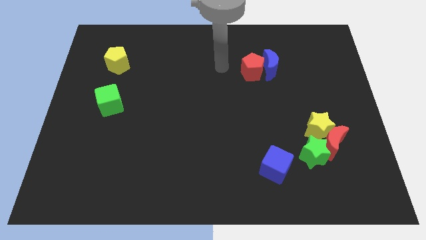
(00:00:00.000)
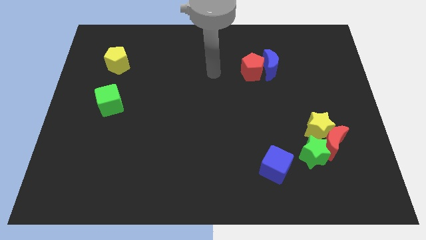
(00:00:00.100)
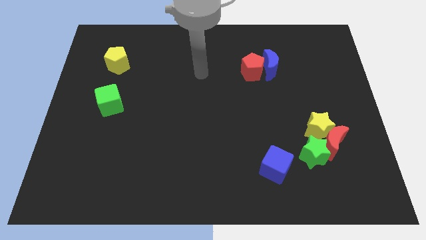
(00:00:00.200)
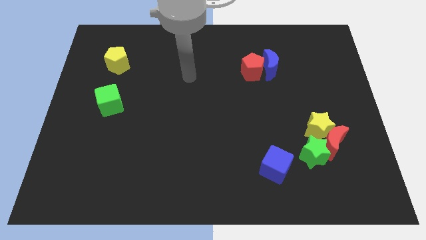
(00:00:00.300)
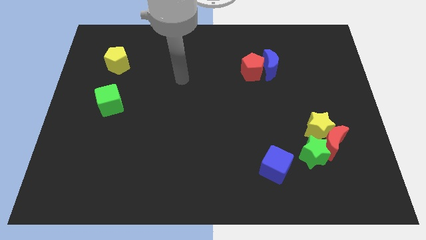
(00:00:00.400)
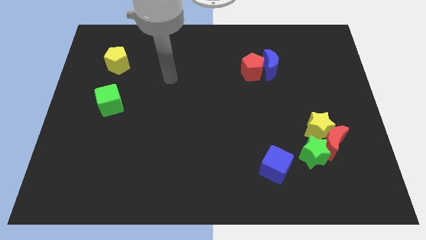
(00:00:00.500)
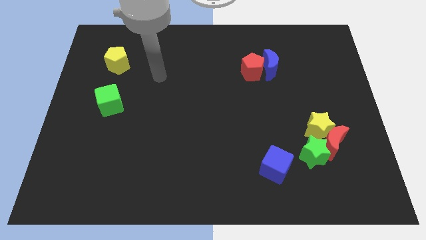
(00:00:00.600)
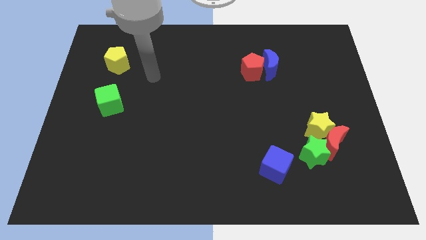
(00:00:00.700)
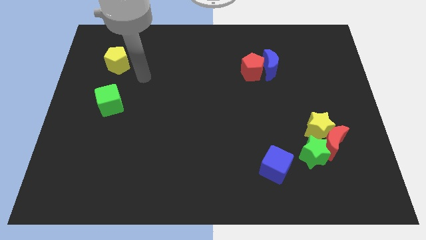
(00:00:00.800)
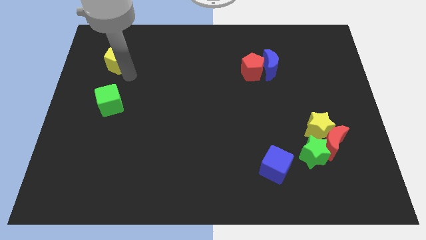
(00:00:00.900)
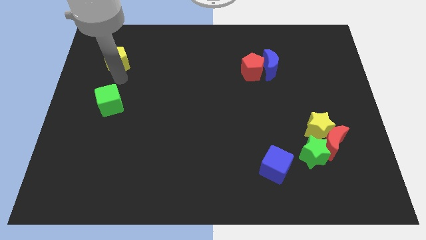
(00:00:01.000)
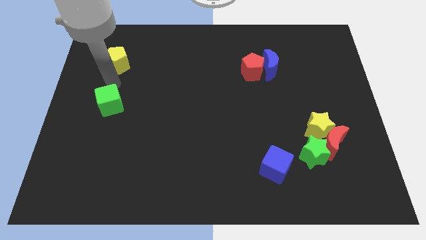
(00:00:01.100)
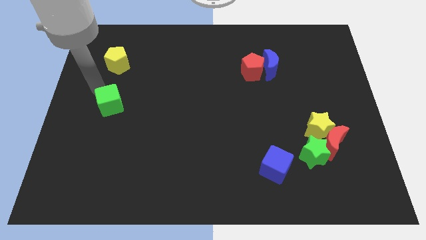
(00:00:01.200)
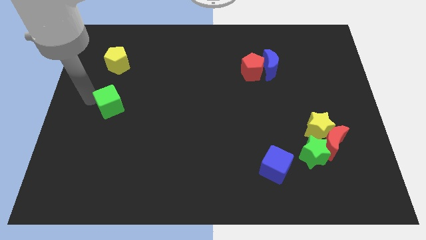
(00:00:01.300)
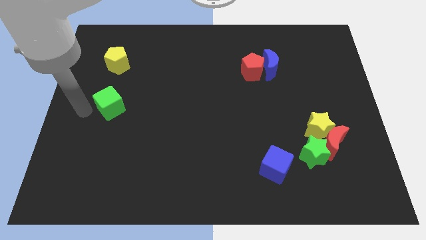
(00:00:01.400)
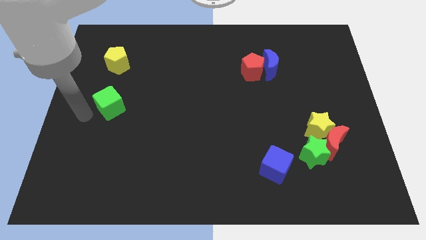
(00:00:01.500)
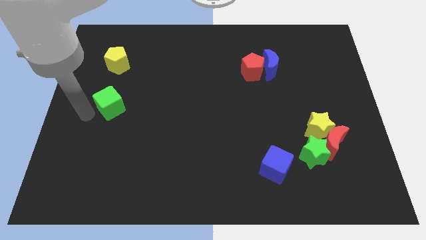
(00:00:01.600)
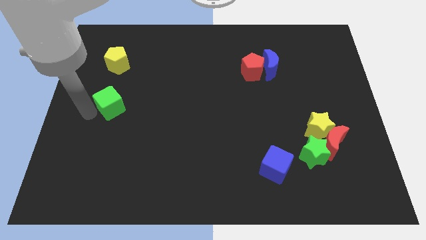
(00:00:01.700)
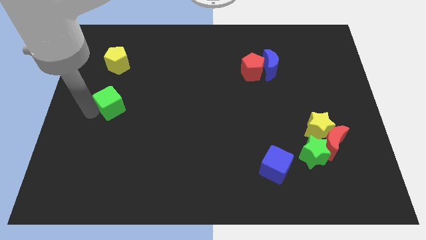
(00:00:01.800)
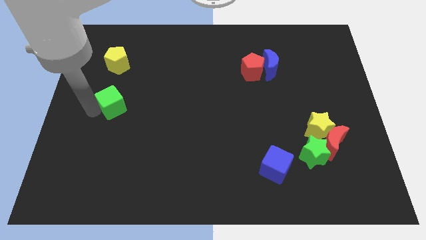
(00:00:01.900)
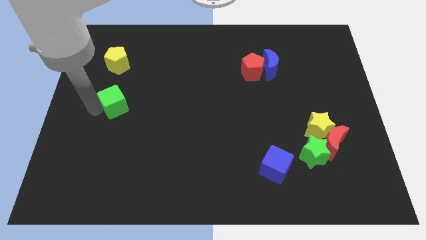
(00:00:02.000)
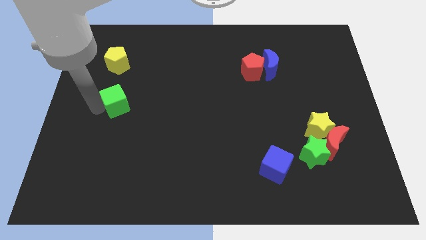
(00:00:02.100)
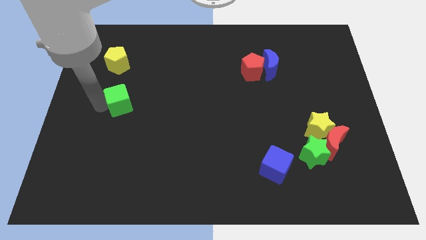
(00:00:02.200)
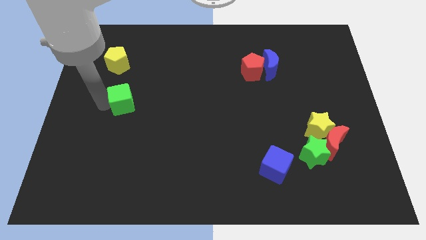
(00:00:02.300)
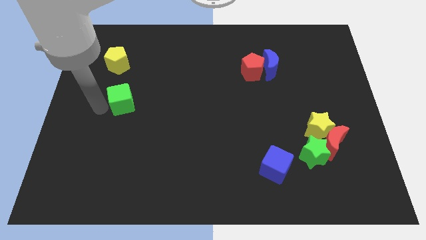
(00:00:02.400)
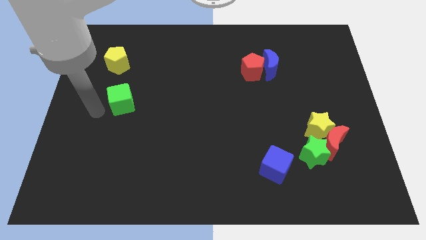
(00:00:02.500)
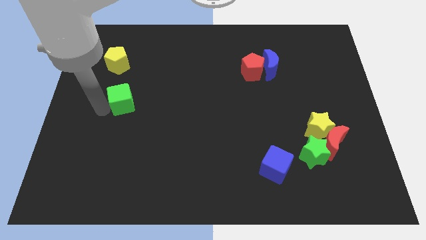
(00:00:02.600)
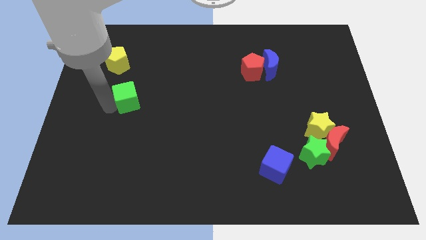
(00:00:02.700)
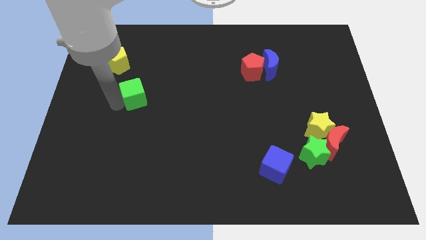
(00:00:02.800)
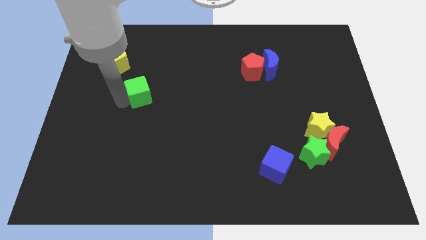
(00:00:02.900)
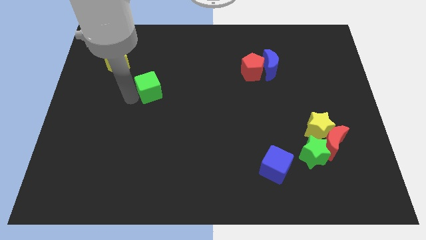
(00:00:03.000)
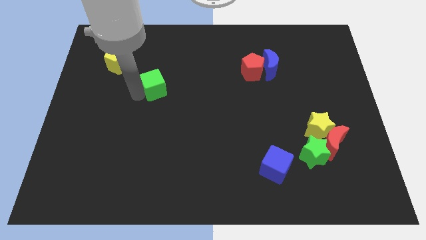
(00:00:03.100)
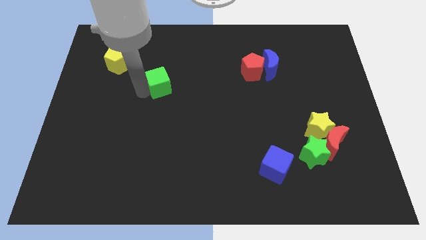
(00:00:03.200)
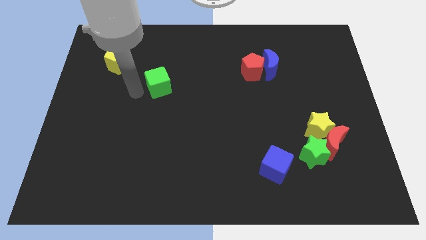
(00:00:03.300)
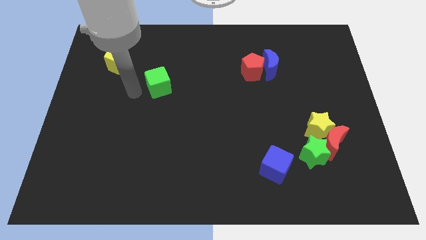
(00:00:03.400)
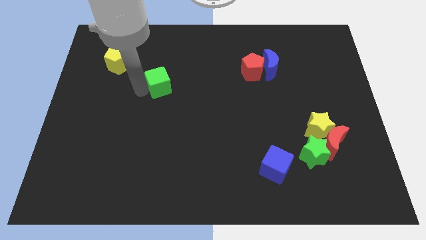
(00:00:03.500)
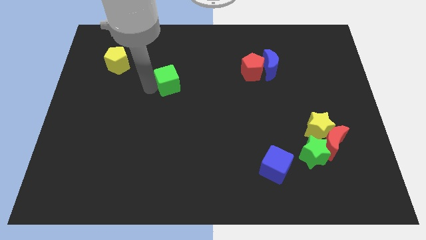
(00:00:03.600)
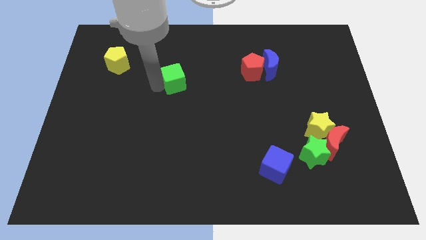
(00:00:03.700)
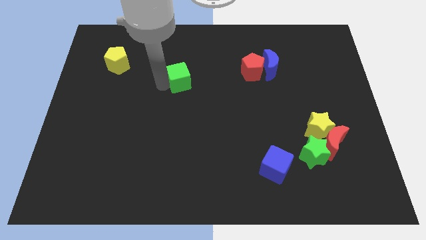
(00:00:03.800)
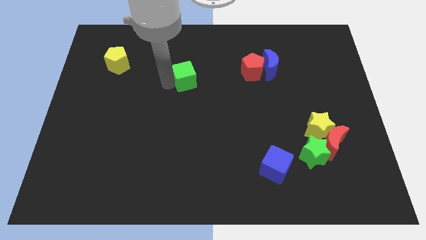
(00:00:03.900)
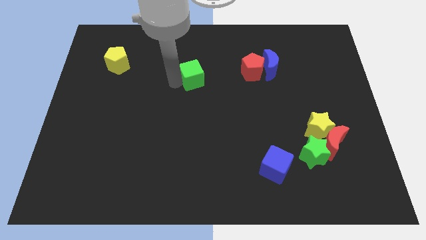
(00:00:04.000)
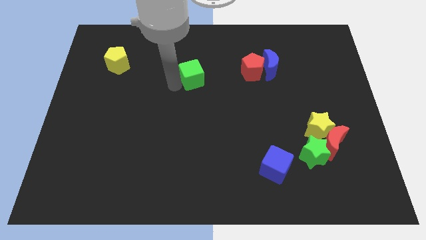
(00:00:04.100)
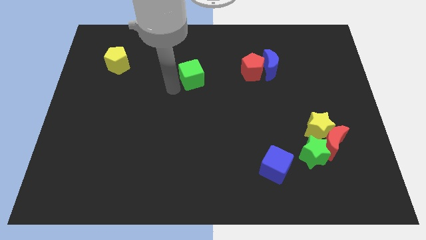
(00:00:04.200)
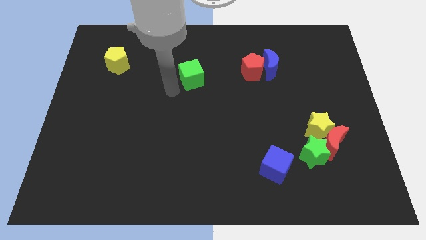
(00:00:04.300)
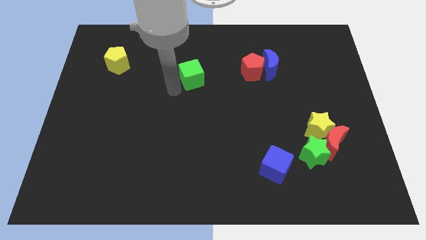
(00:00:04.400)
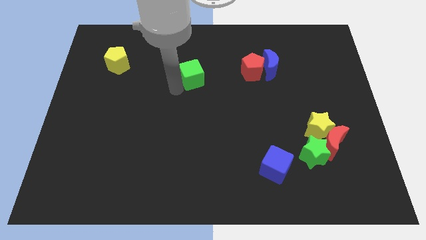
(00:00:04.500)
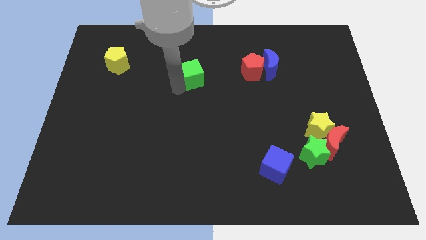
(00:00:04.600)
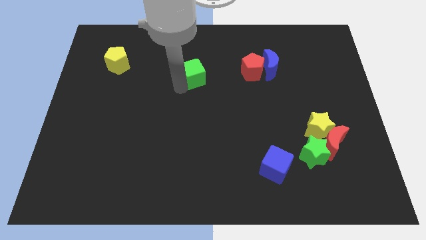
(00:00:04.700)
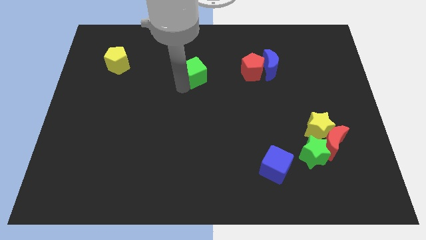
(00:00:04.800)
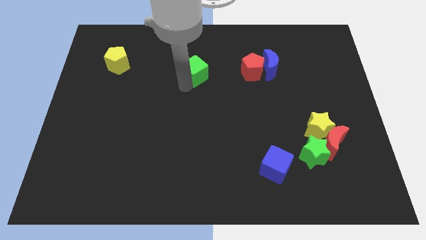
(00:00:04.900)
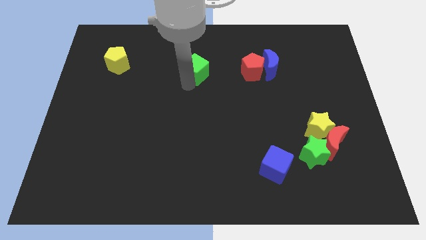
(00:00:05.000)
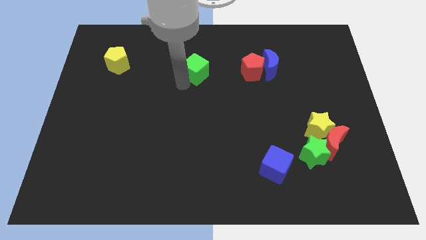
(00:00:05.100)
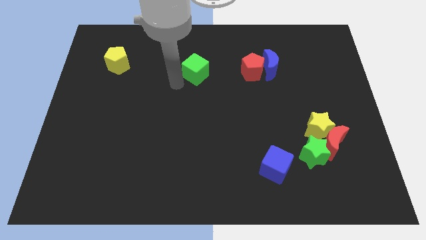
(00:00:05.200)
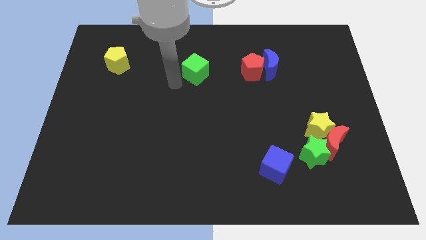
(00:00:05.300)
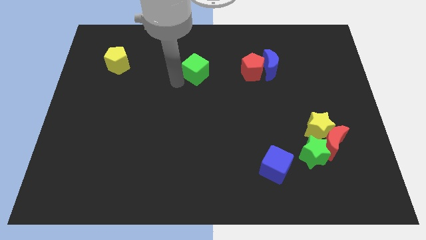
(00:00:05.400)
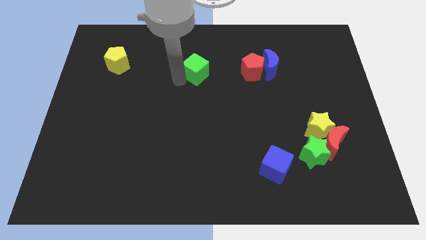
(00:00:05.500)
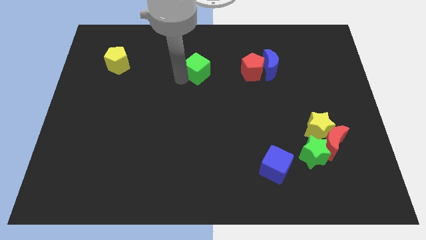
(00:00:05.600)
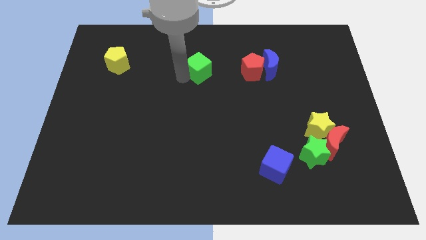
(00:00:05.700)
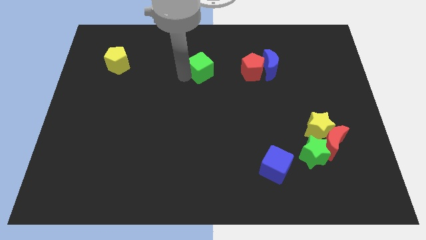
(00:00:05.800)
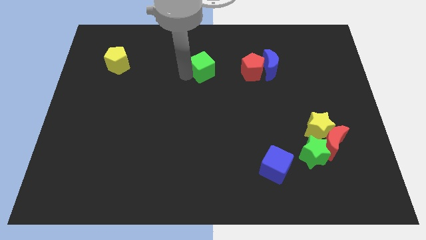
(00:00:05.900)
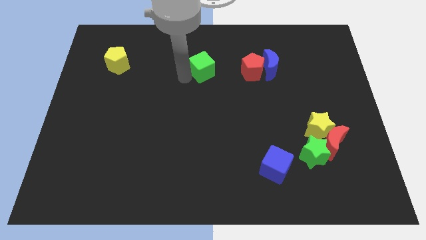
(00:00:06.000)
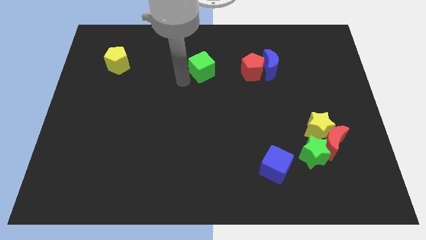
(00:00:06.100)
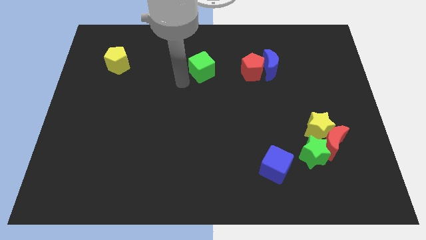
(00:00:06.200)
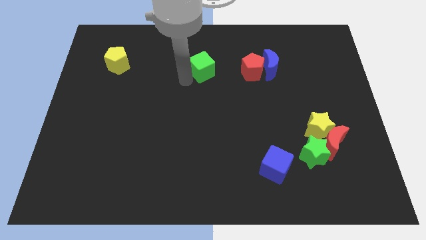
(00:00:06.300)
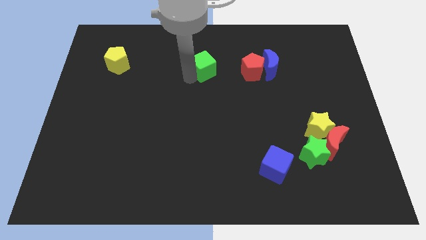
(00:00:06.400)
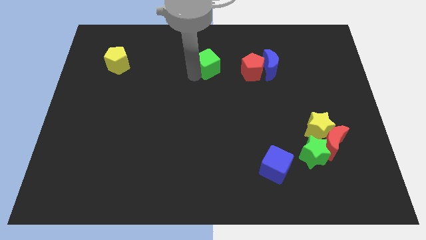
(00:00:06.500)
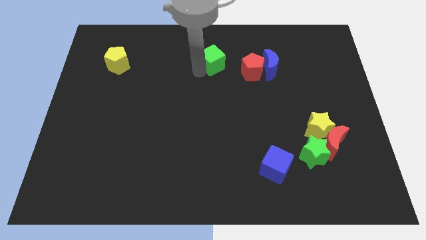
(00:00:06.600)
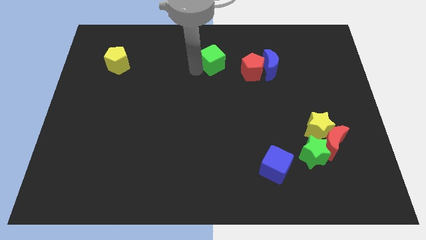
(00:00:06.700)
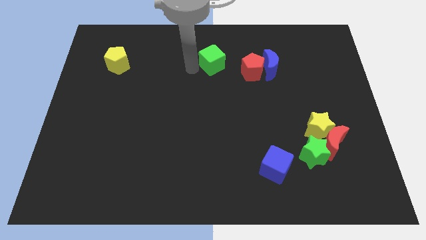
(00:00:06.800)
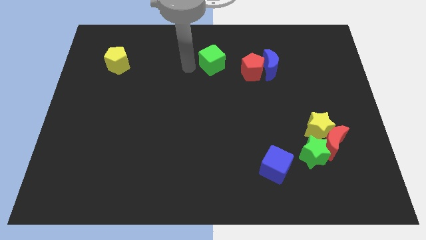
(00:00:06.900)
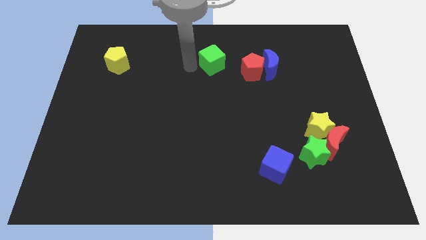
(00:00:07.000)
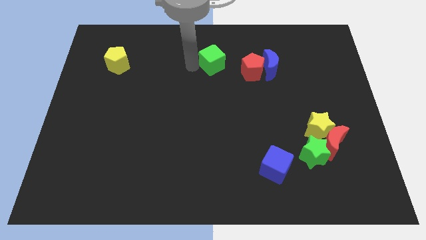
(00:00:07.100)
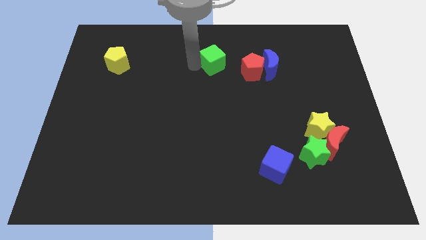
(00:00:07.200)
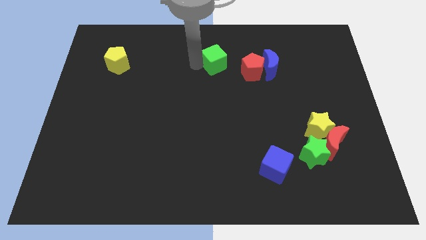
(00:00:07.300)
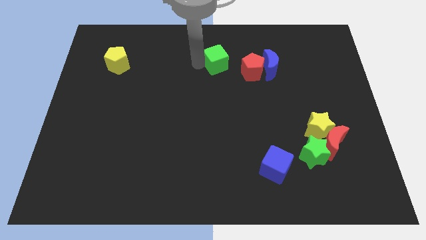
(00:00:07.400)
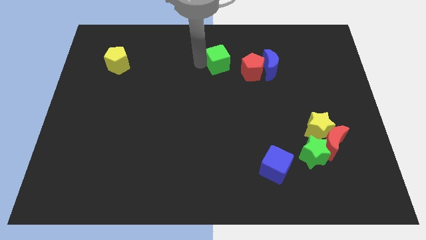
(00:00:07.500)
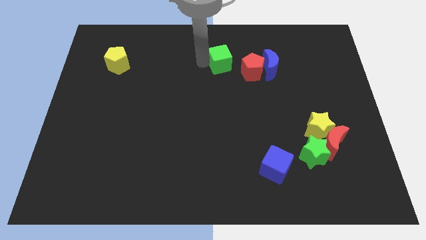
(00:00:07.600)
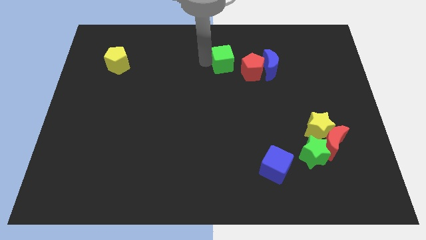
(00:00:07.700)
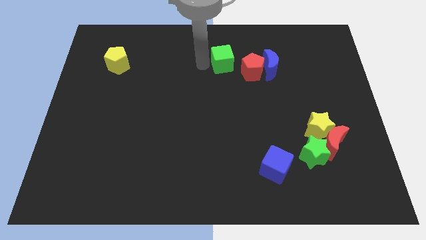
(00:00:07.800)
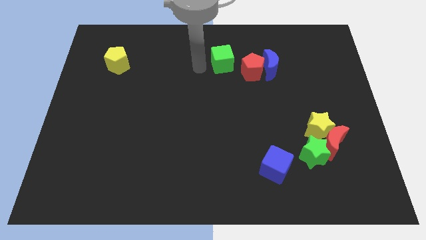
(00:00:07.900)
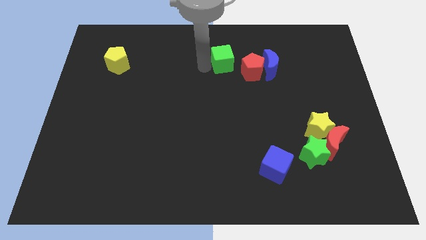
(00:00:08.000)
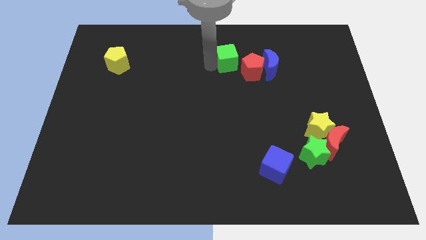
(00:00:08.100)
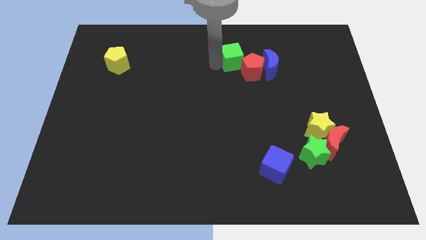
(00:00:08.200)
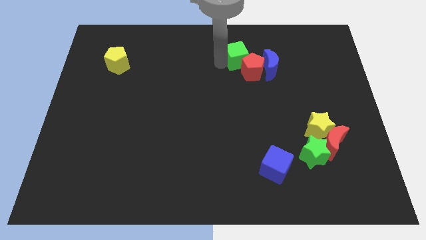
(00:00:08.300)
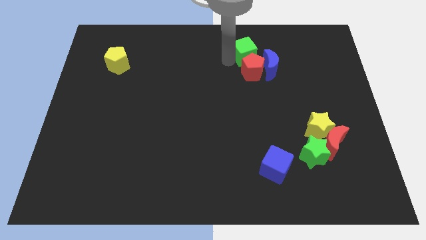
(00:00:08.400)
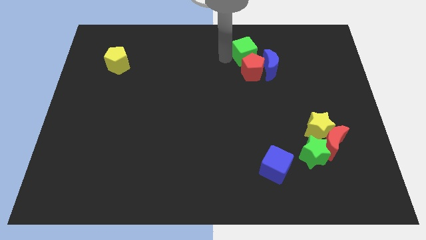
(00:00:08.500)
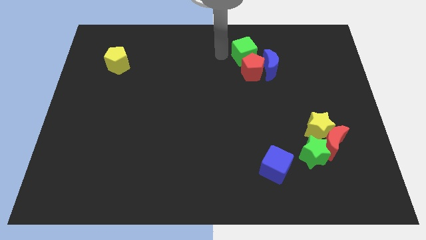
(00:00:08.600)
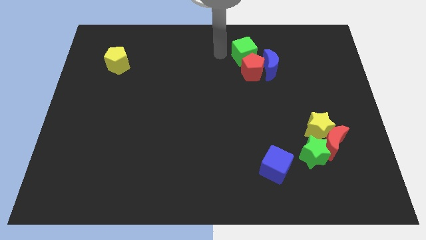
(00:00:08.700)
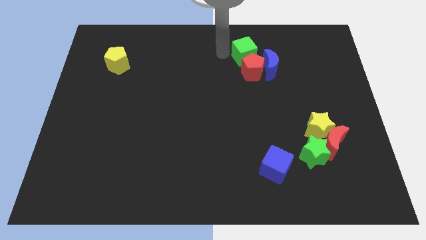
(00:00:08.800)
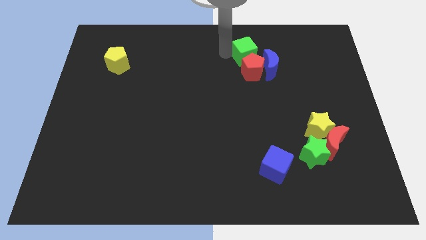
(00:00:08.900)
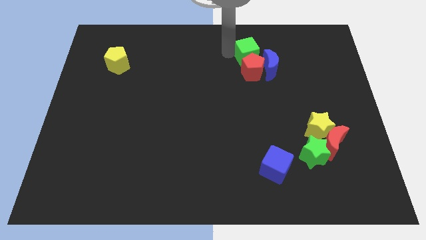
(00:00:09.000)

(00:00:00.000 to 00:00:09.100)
put the green cube diagonally up and to the right of the red pentagon
